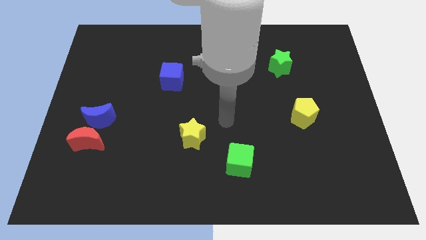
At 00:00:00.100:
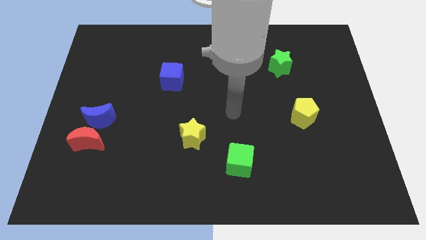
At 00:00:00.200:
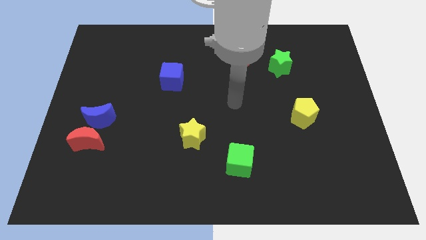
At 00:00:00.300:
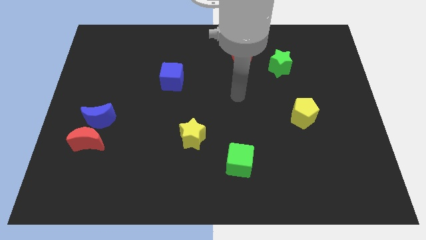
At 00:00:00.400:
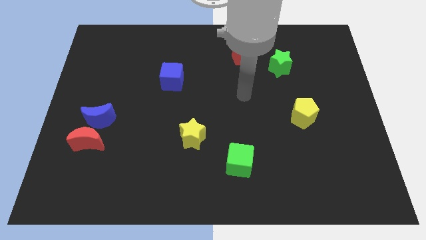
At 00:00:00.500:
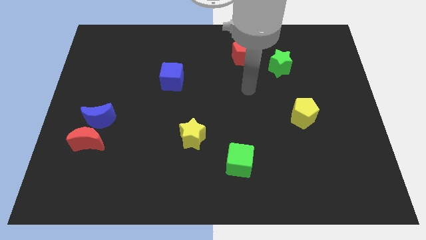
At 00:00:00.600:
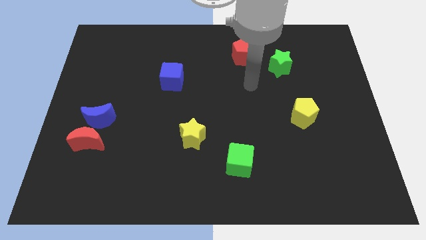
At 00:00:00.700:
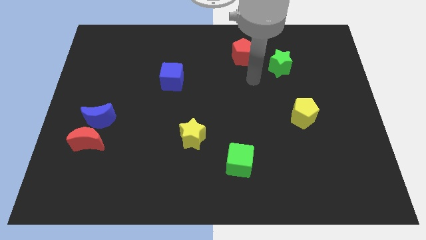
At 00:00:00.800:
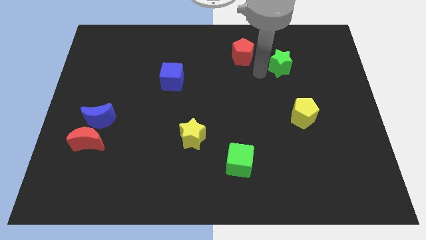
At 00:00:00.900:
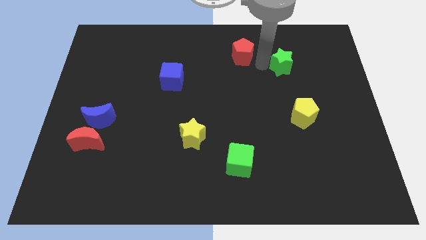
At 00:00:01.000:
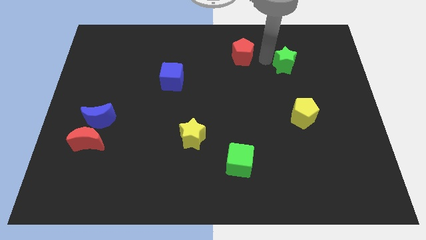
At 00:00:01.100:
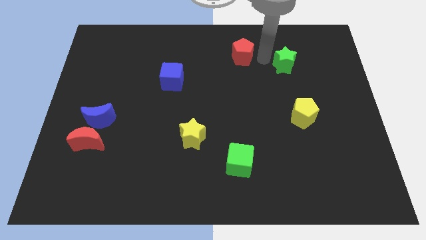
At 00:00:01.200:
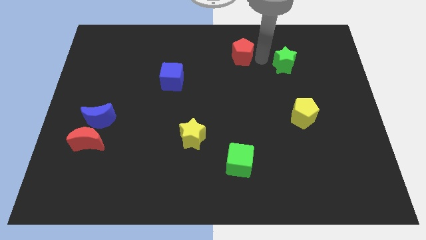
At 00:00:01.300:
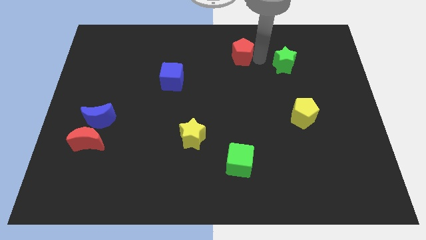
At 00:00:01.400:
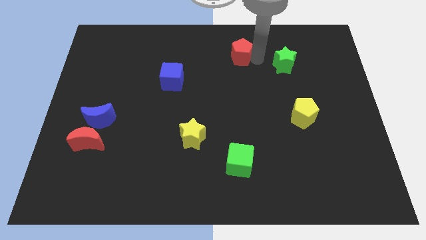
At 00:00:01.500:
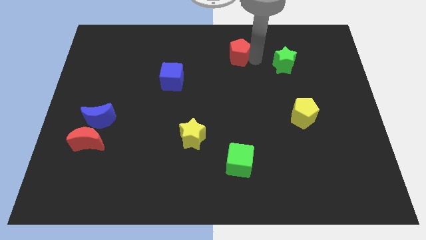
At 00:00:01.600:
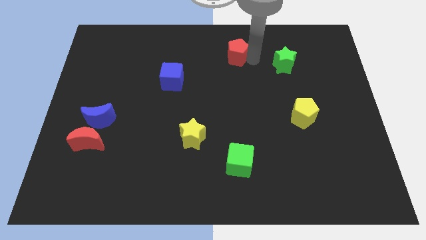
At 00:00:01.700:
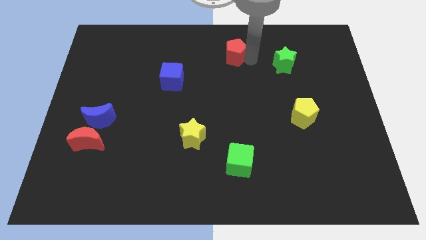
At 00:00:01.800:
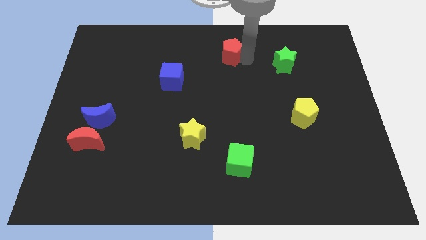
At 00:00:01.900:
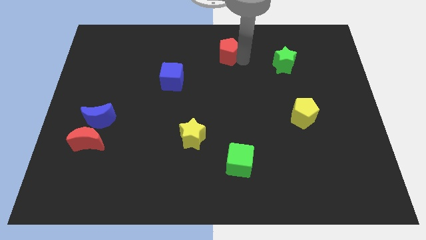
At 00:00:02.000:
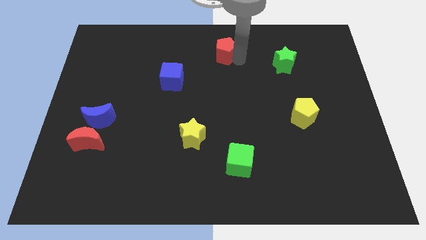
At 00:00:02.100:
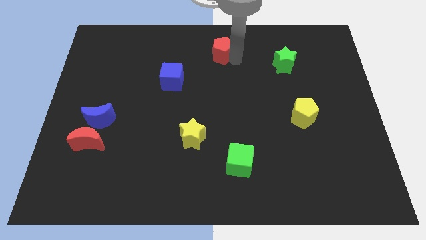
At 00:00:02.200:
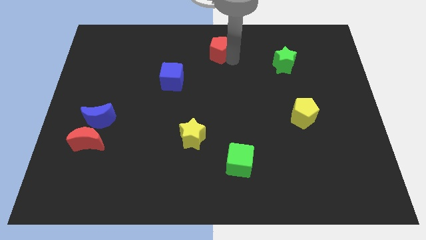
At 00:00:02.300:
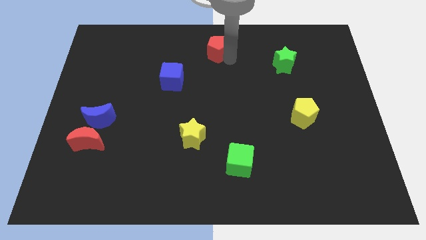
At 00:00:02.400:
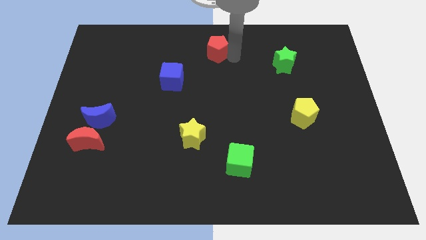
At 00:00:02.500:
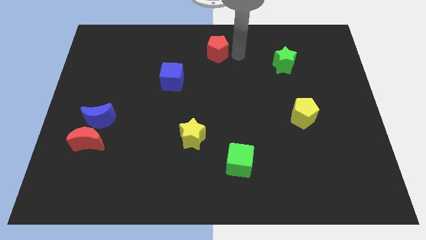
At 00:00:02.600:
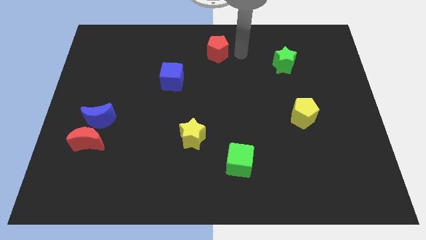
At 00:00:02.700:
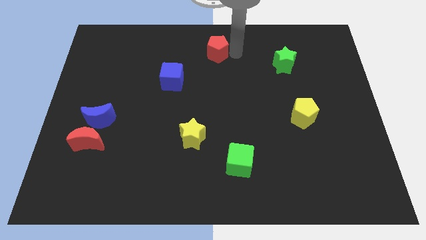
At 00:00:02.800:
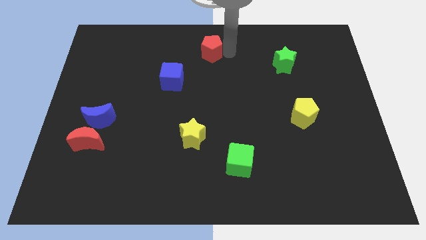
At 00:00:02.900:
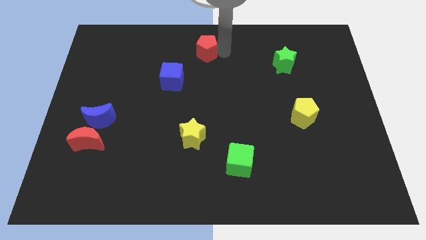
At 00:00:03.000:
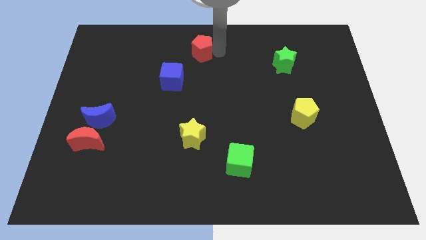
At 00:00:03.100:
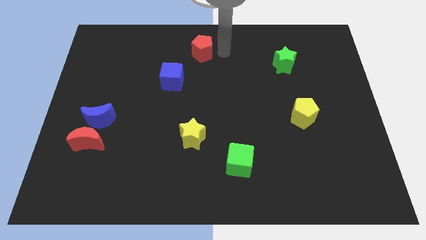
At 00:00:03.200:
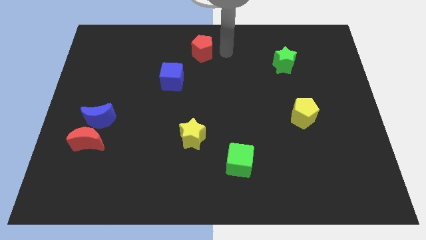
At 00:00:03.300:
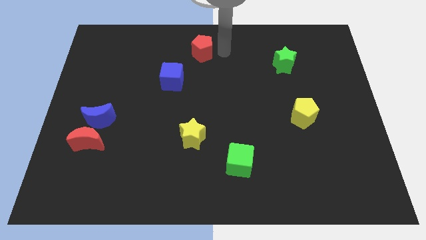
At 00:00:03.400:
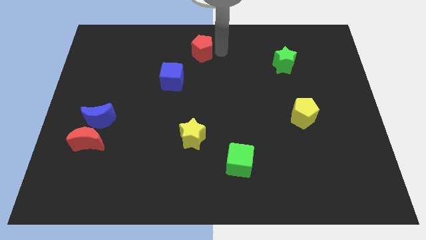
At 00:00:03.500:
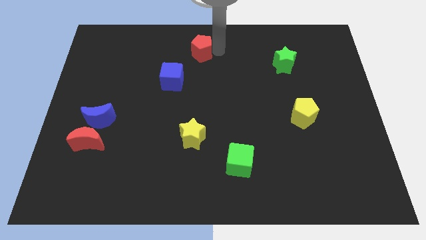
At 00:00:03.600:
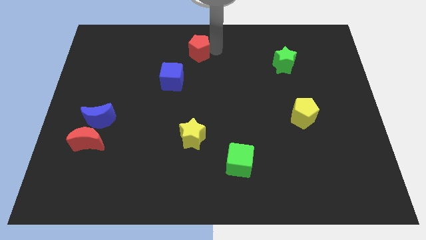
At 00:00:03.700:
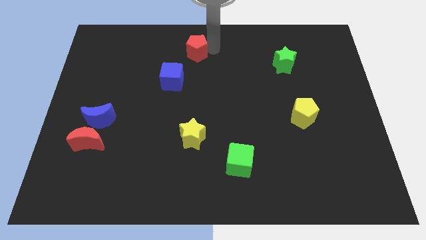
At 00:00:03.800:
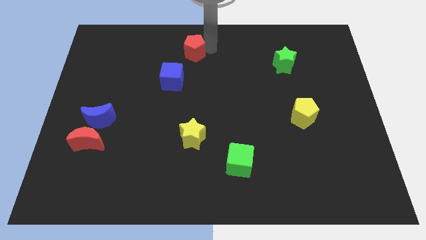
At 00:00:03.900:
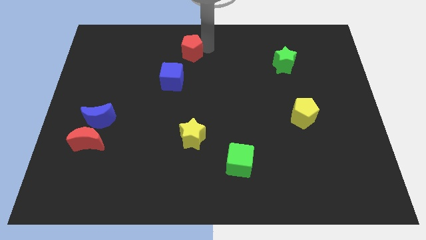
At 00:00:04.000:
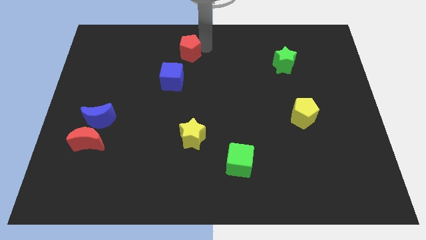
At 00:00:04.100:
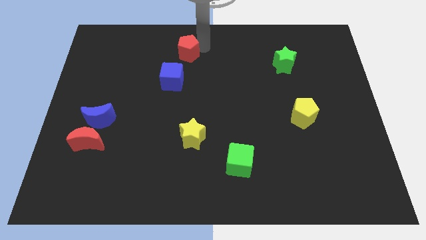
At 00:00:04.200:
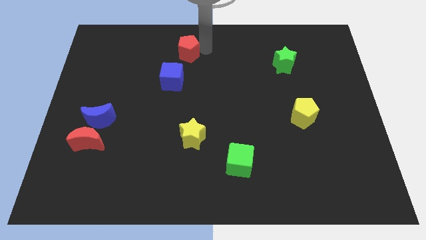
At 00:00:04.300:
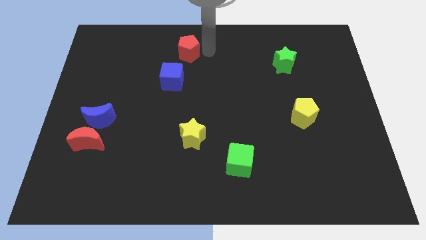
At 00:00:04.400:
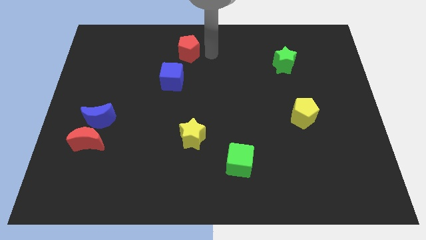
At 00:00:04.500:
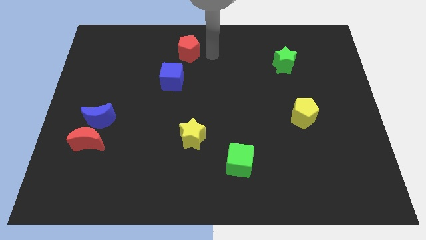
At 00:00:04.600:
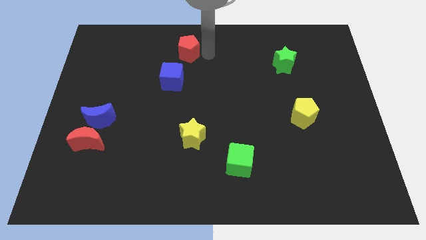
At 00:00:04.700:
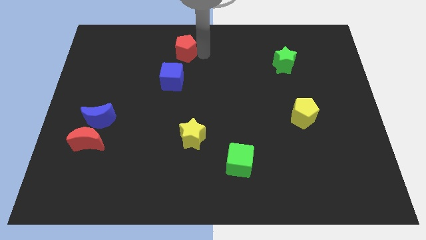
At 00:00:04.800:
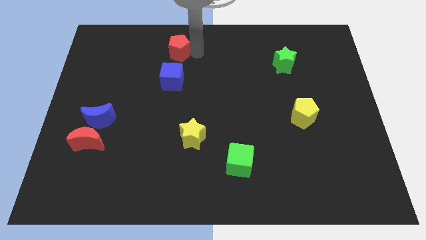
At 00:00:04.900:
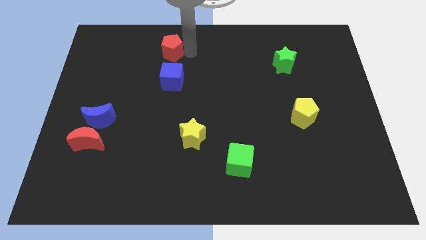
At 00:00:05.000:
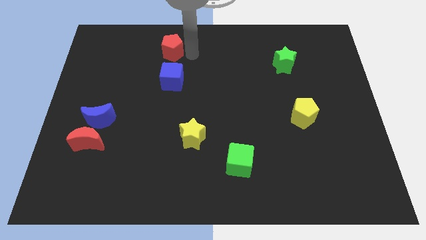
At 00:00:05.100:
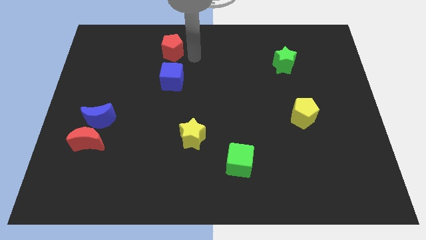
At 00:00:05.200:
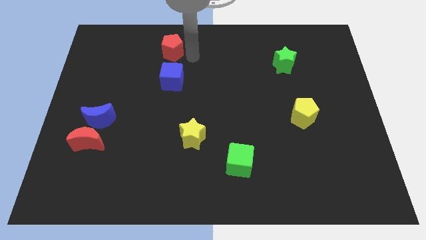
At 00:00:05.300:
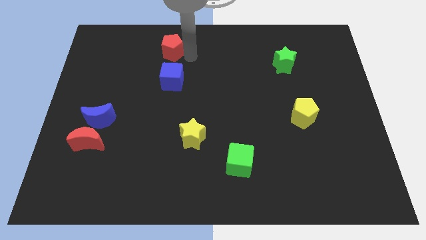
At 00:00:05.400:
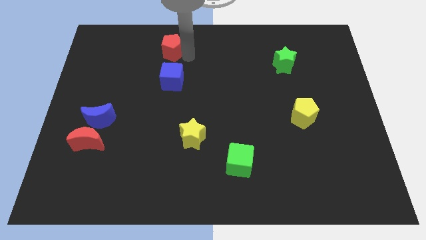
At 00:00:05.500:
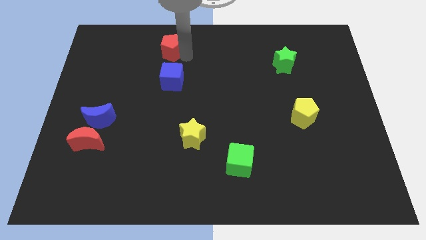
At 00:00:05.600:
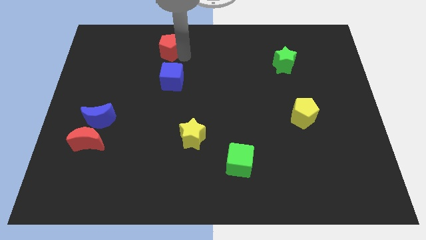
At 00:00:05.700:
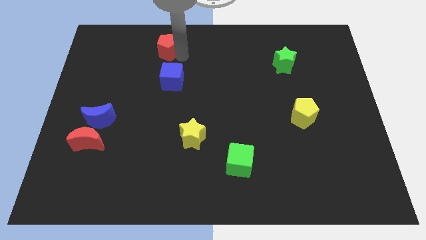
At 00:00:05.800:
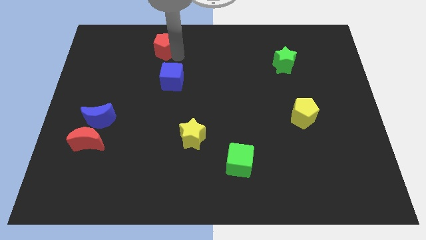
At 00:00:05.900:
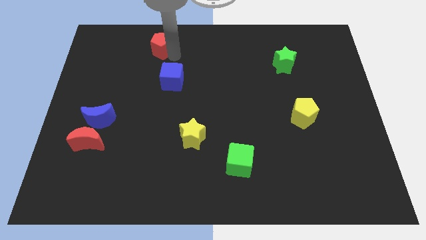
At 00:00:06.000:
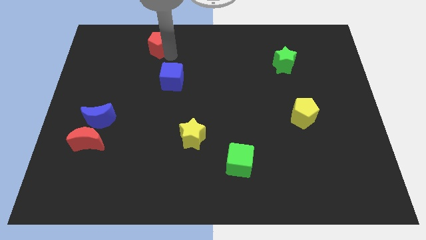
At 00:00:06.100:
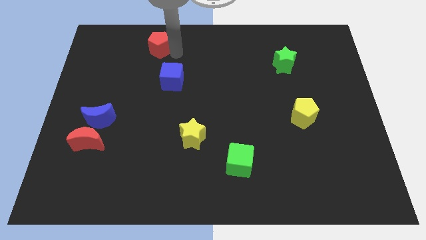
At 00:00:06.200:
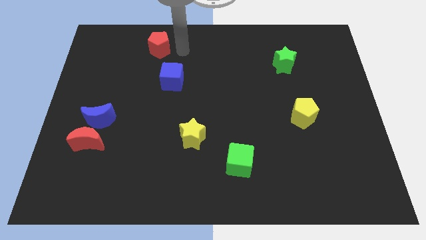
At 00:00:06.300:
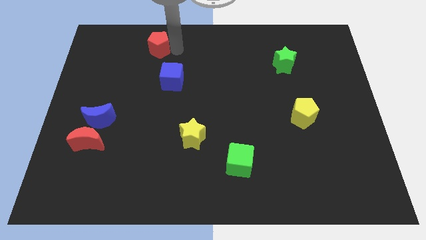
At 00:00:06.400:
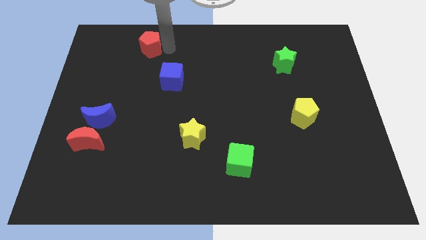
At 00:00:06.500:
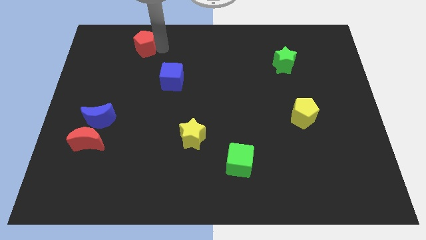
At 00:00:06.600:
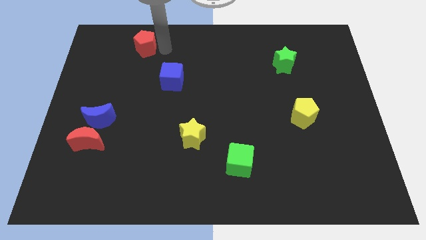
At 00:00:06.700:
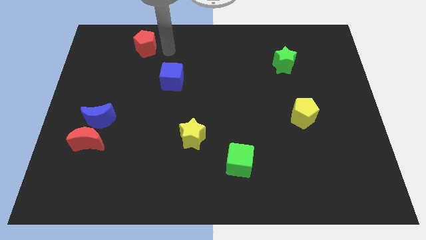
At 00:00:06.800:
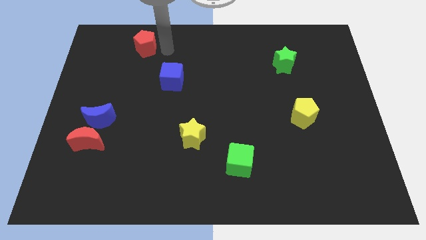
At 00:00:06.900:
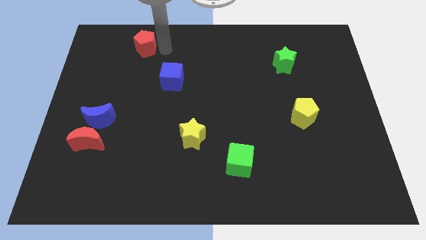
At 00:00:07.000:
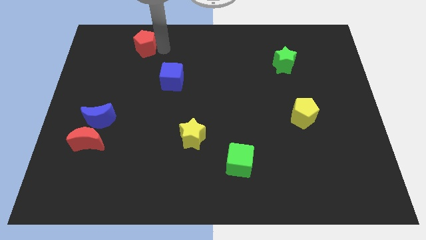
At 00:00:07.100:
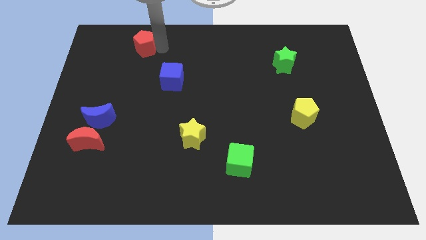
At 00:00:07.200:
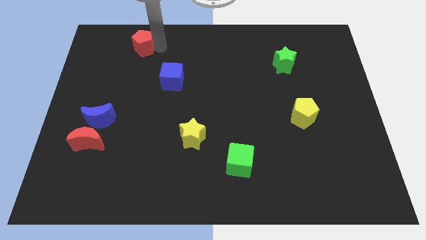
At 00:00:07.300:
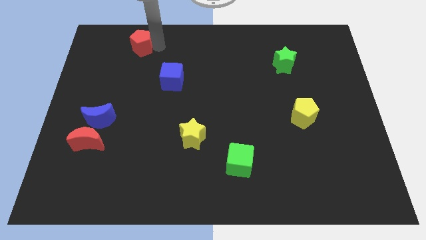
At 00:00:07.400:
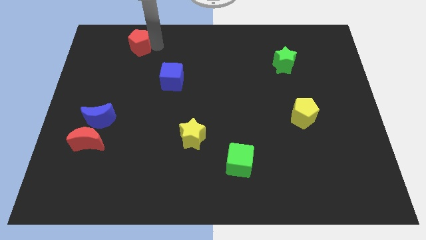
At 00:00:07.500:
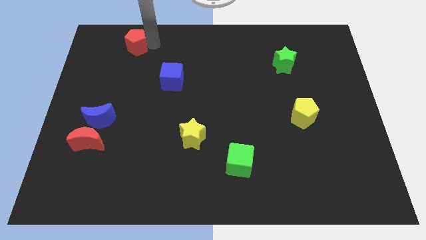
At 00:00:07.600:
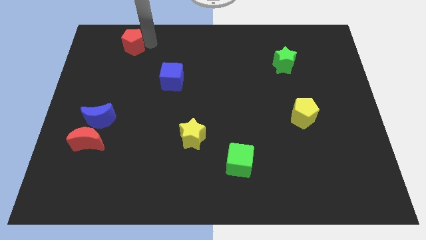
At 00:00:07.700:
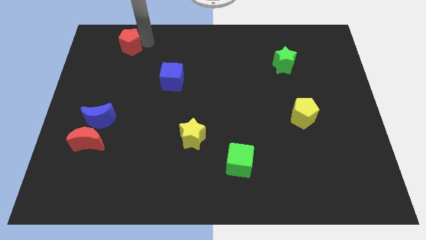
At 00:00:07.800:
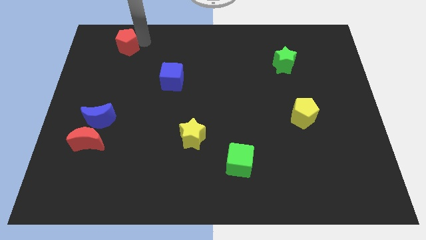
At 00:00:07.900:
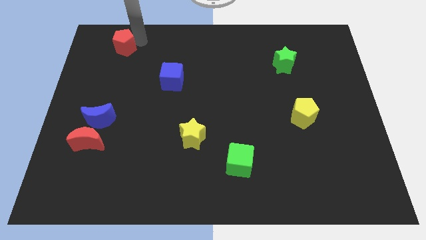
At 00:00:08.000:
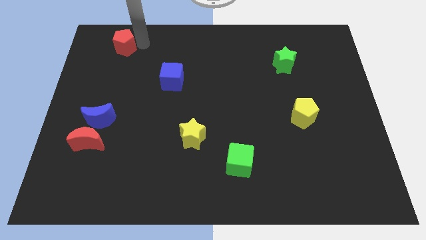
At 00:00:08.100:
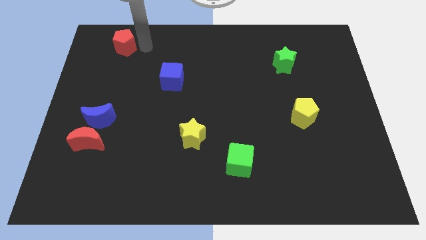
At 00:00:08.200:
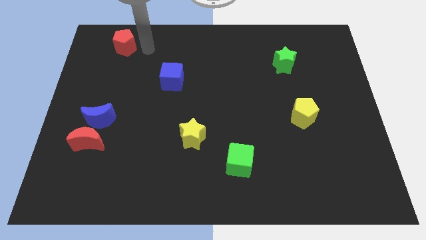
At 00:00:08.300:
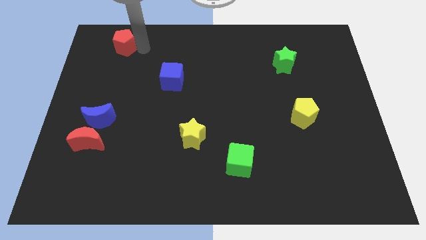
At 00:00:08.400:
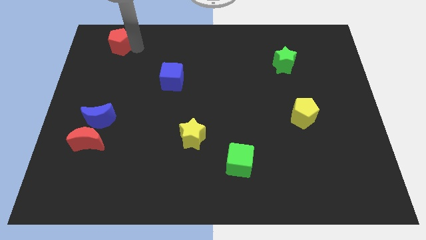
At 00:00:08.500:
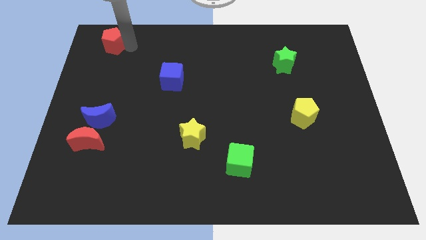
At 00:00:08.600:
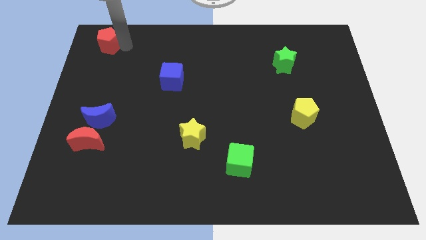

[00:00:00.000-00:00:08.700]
slide the red pentagon to the top left of the board
